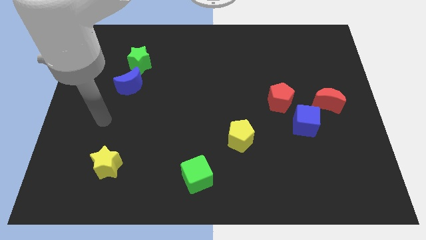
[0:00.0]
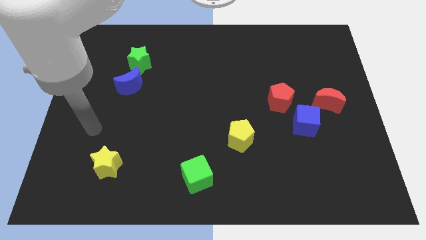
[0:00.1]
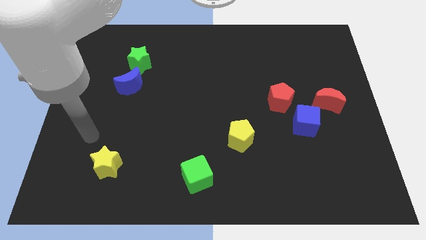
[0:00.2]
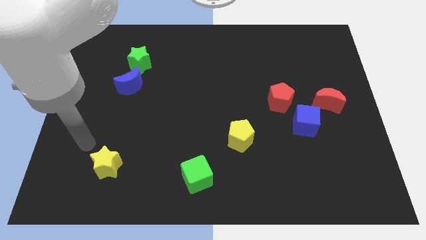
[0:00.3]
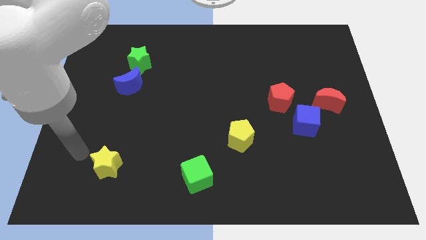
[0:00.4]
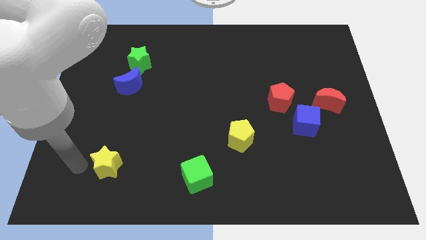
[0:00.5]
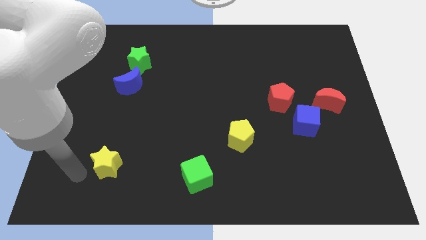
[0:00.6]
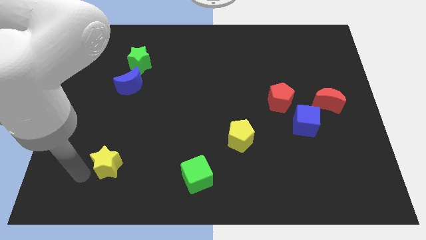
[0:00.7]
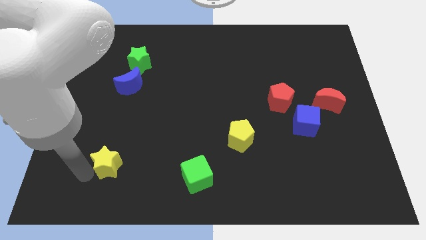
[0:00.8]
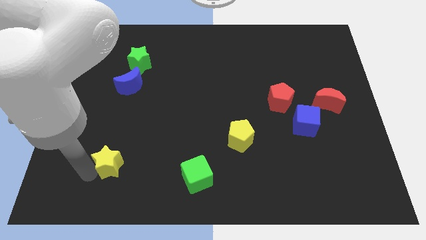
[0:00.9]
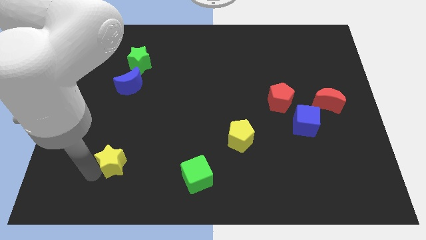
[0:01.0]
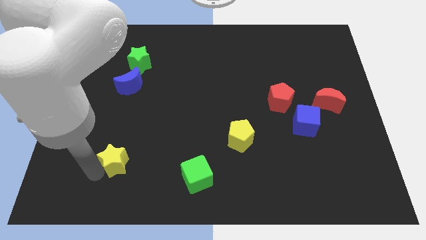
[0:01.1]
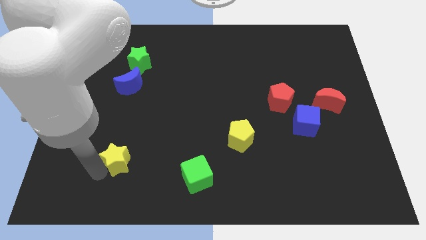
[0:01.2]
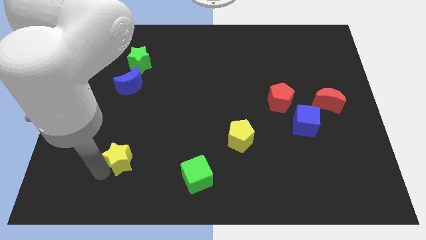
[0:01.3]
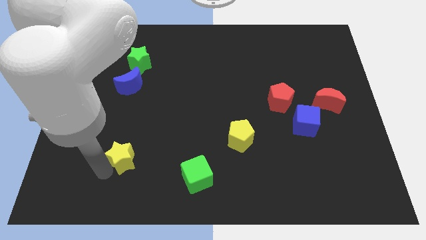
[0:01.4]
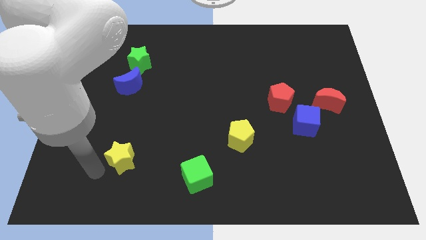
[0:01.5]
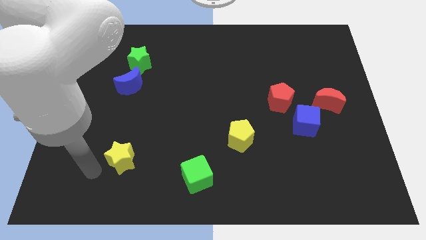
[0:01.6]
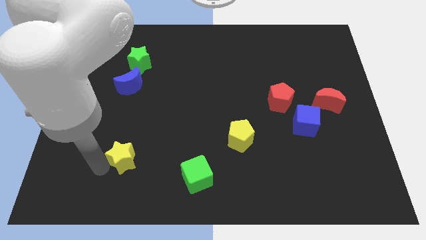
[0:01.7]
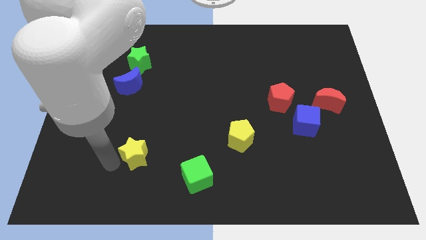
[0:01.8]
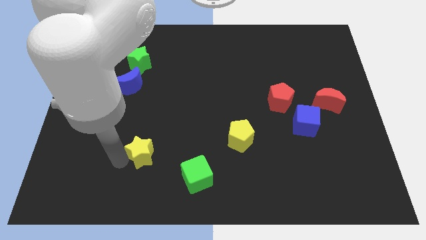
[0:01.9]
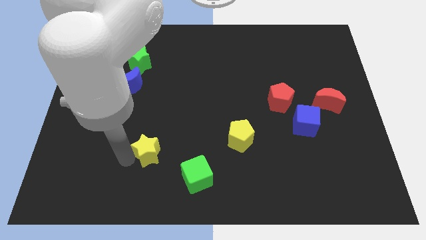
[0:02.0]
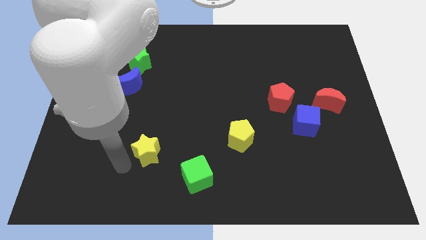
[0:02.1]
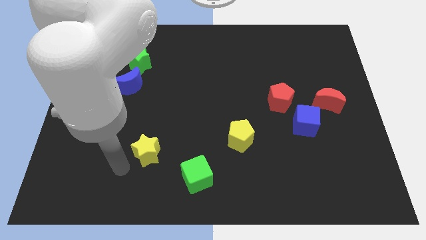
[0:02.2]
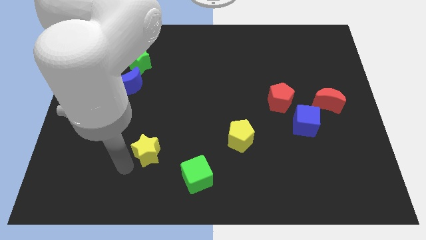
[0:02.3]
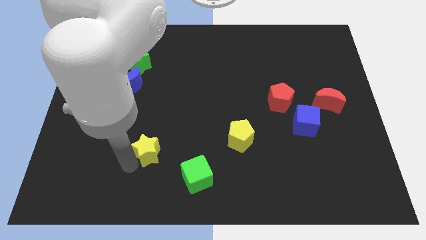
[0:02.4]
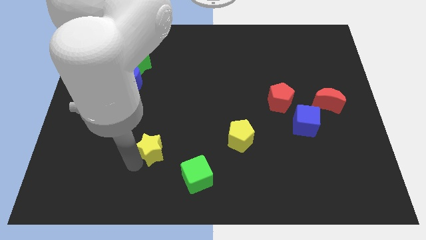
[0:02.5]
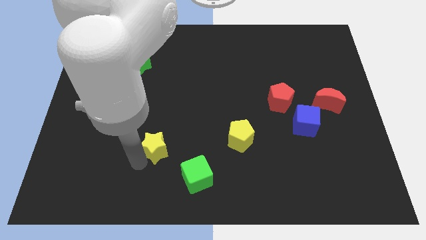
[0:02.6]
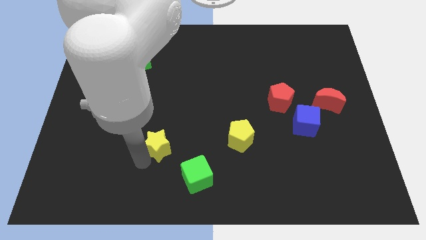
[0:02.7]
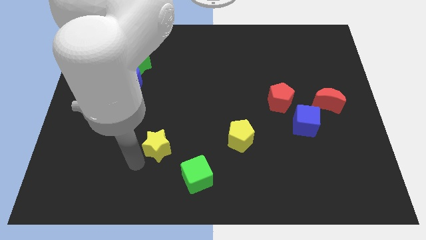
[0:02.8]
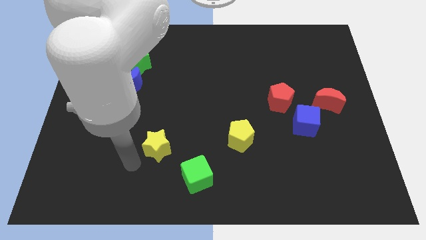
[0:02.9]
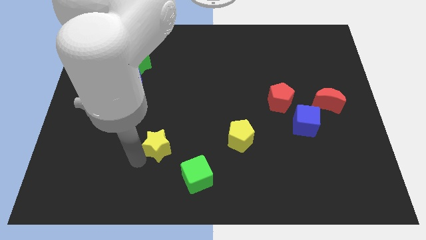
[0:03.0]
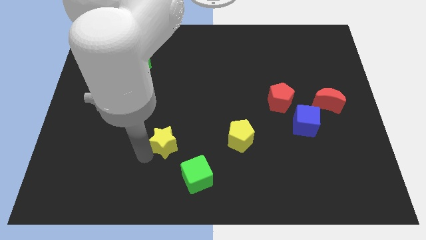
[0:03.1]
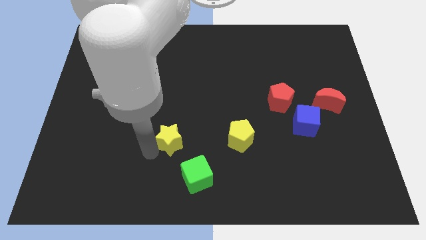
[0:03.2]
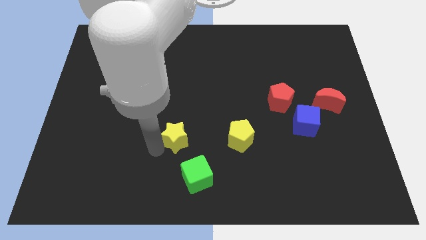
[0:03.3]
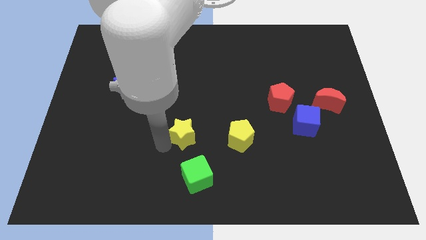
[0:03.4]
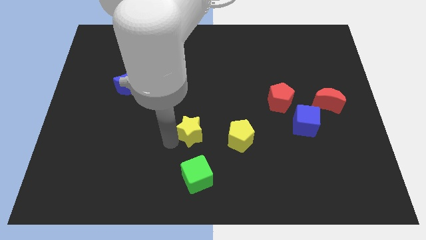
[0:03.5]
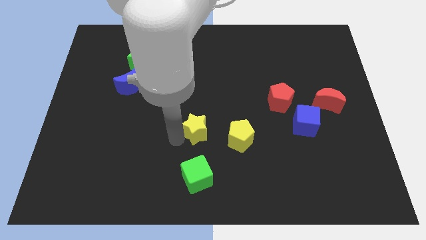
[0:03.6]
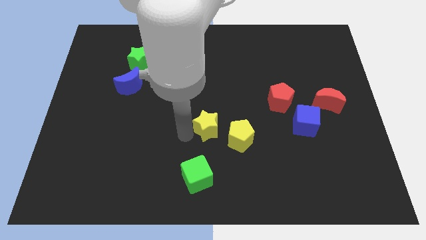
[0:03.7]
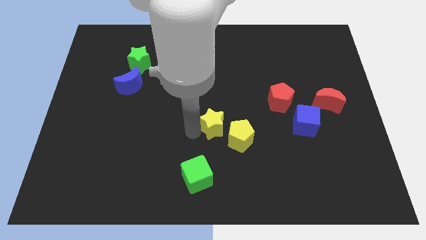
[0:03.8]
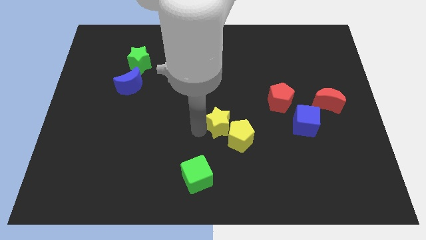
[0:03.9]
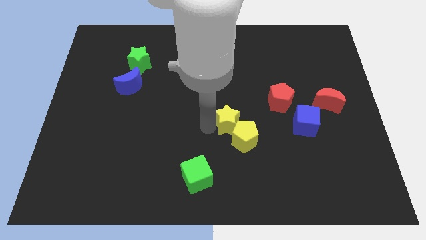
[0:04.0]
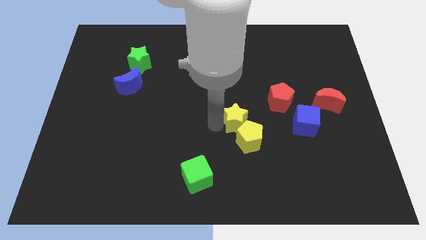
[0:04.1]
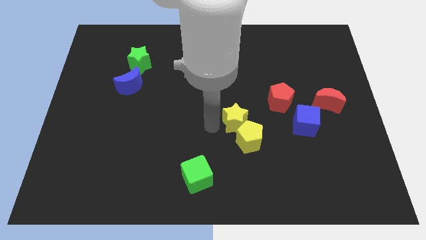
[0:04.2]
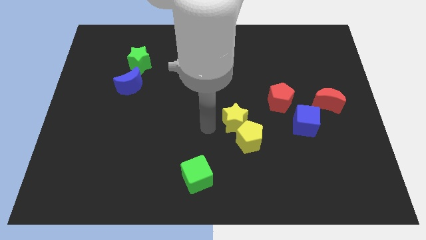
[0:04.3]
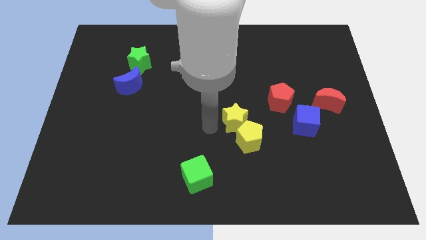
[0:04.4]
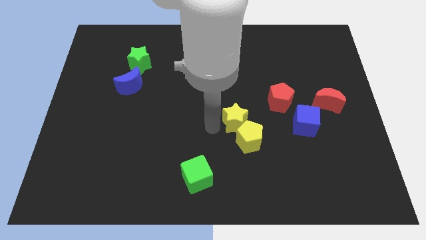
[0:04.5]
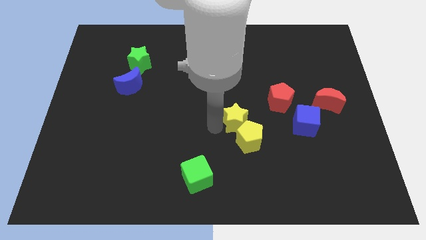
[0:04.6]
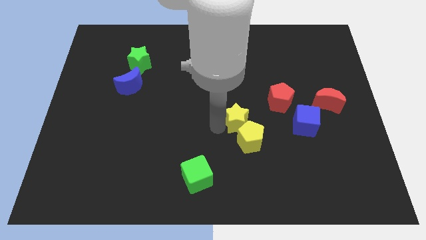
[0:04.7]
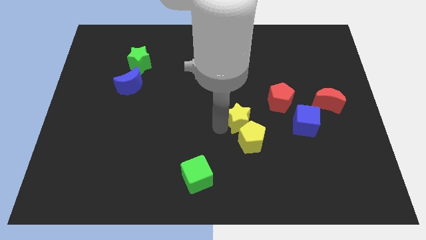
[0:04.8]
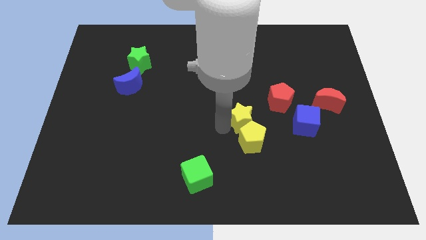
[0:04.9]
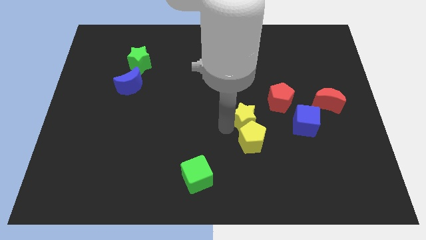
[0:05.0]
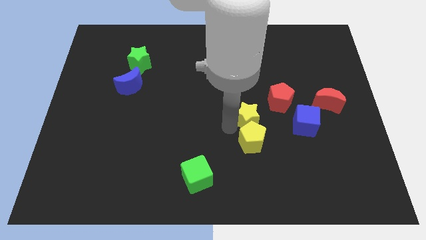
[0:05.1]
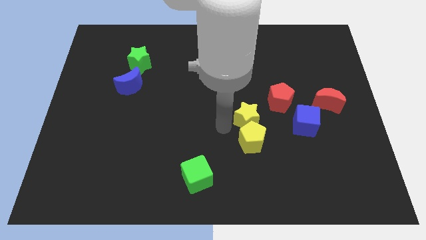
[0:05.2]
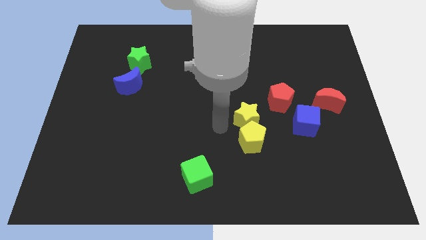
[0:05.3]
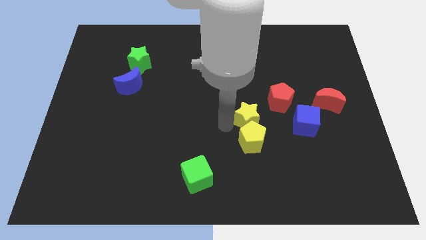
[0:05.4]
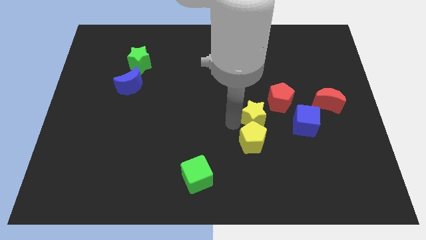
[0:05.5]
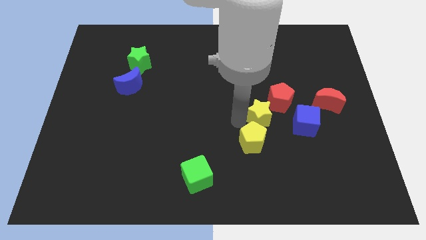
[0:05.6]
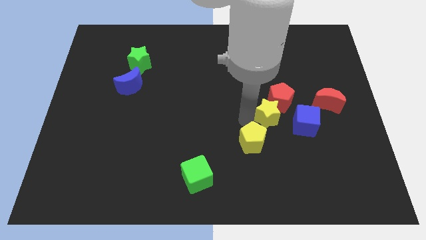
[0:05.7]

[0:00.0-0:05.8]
push the yellow star next to the red pentagon

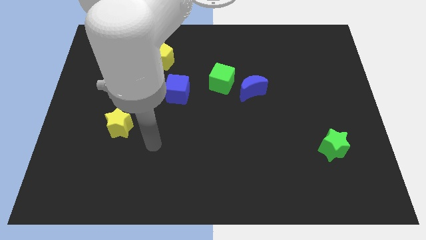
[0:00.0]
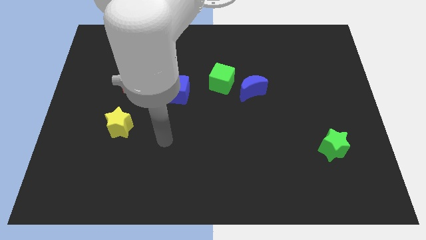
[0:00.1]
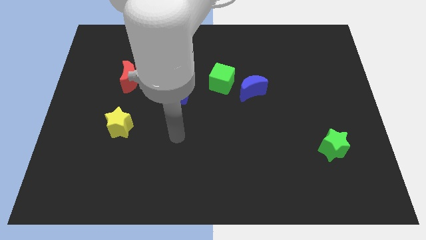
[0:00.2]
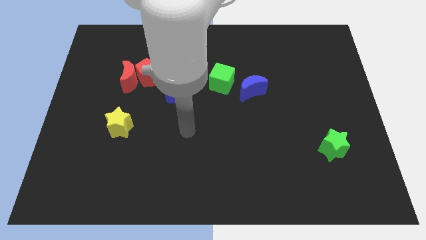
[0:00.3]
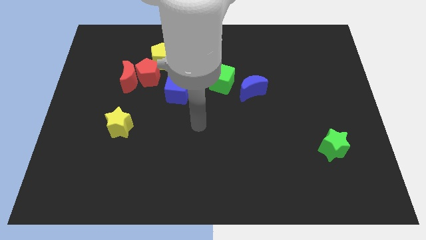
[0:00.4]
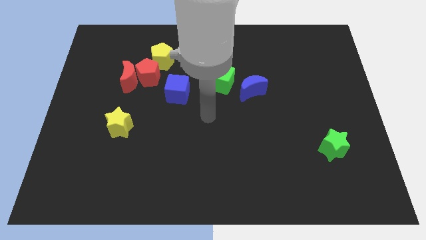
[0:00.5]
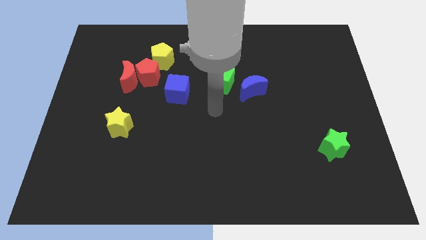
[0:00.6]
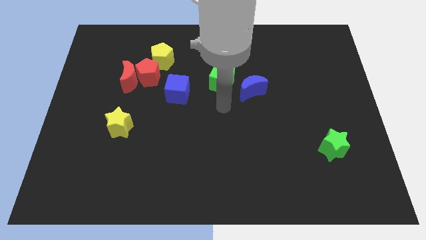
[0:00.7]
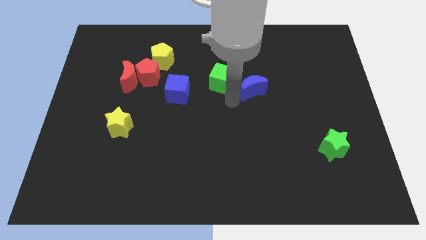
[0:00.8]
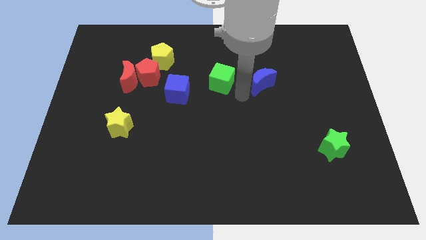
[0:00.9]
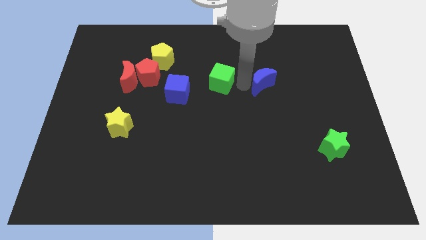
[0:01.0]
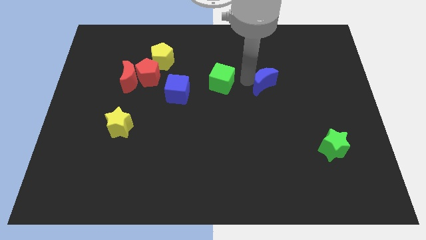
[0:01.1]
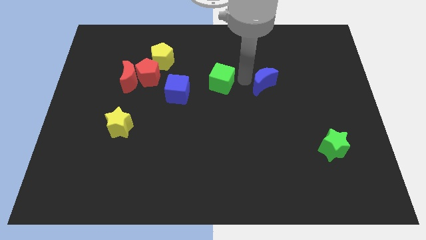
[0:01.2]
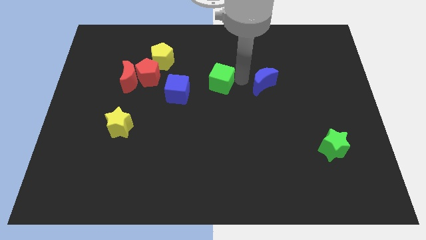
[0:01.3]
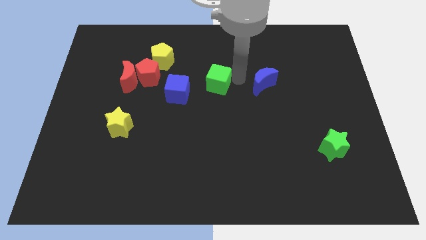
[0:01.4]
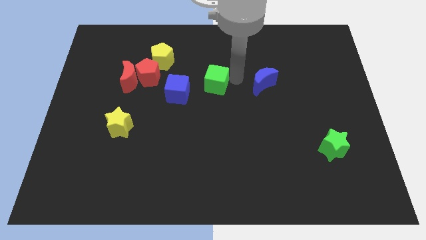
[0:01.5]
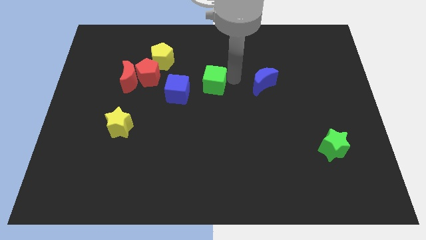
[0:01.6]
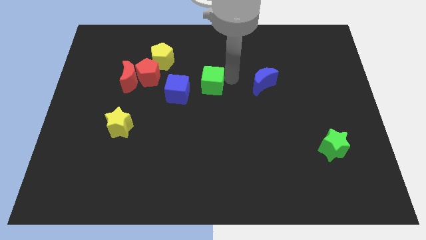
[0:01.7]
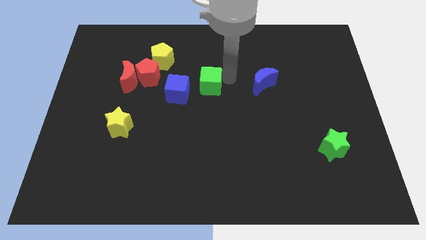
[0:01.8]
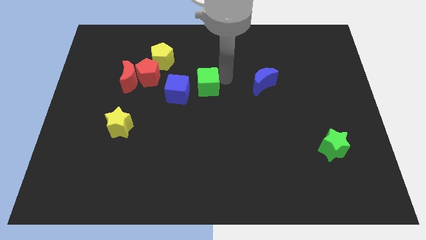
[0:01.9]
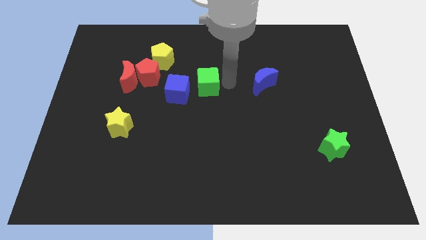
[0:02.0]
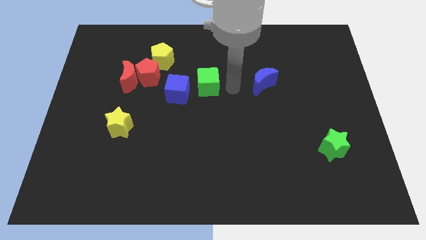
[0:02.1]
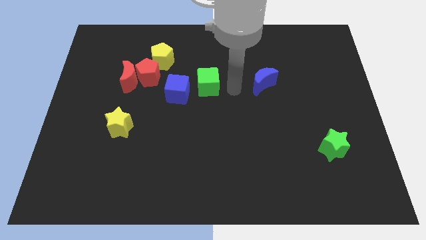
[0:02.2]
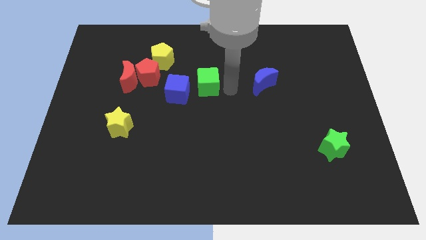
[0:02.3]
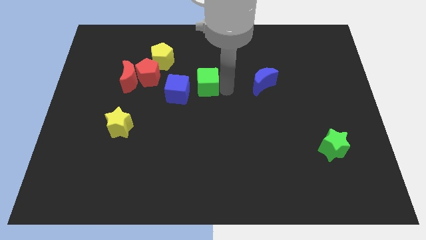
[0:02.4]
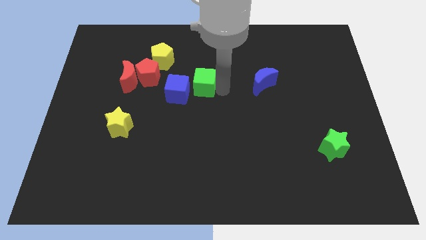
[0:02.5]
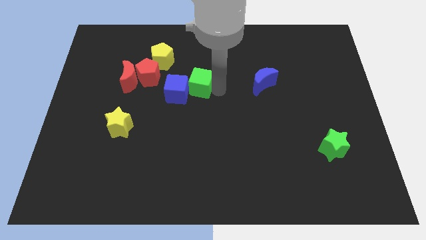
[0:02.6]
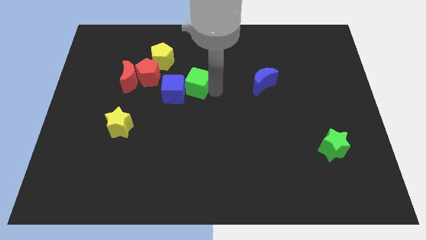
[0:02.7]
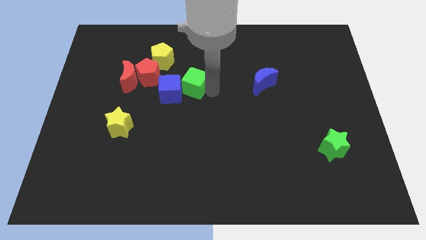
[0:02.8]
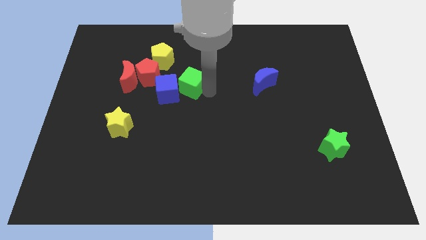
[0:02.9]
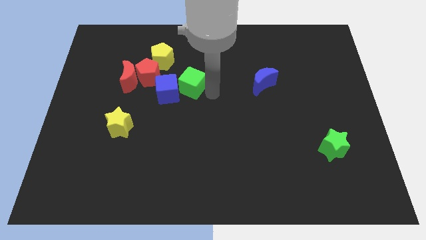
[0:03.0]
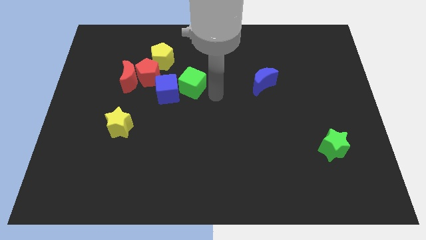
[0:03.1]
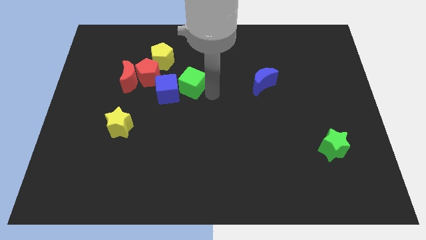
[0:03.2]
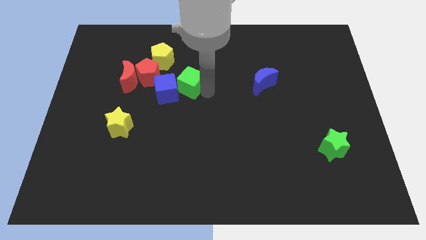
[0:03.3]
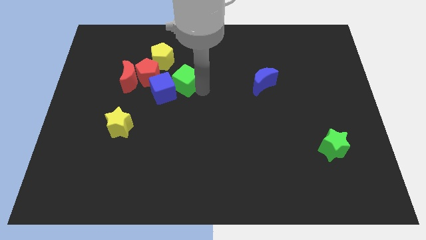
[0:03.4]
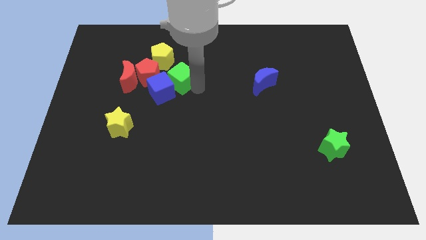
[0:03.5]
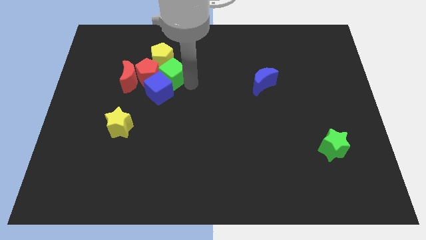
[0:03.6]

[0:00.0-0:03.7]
push the green cube next to the red pentagon
